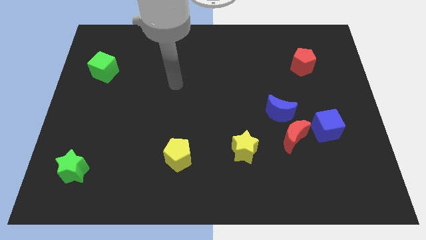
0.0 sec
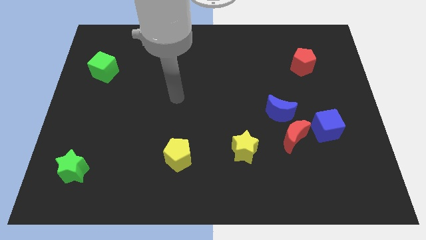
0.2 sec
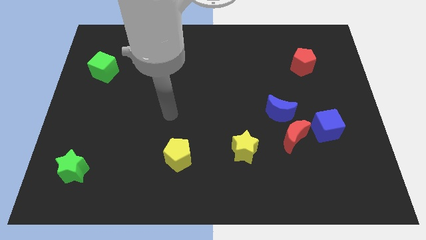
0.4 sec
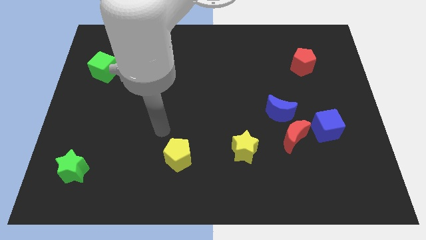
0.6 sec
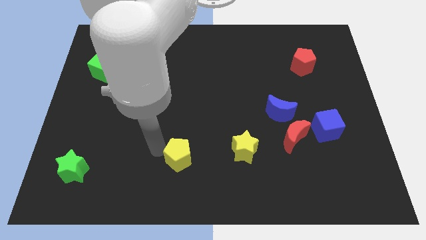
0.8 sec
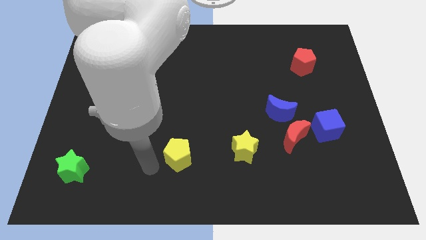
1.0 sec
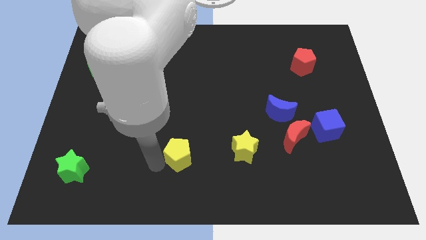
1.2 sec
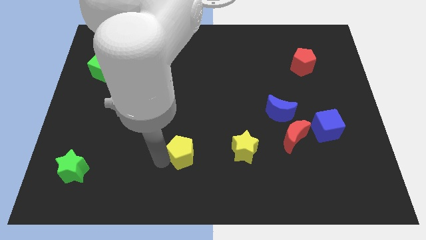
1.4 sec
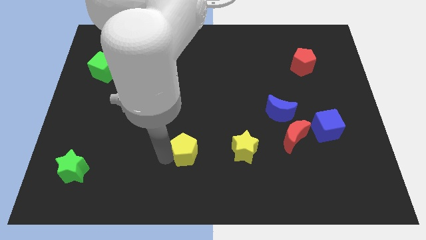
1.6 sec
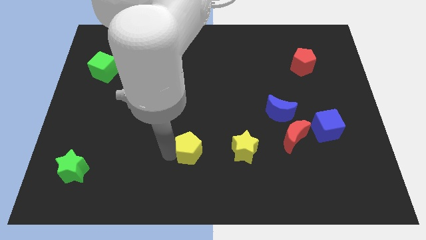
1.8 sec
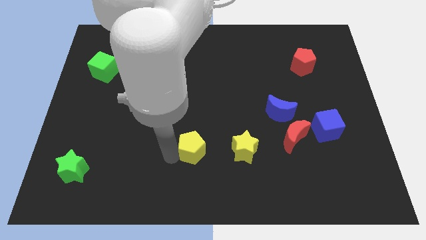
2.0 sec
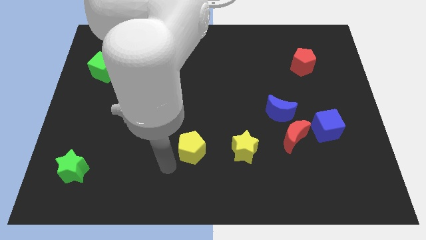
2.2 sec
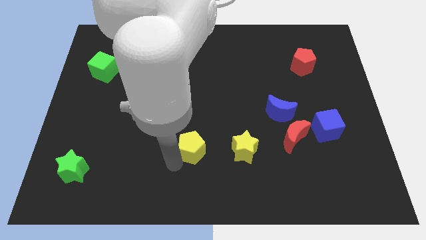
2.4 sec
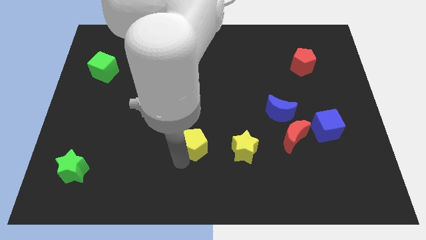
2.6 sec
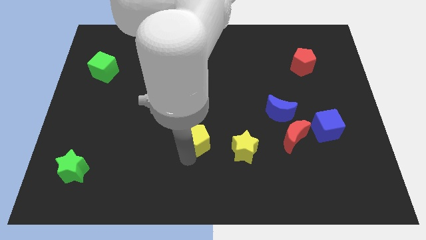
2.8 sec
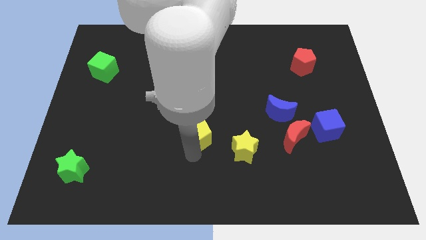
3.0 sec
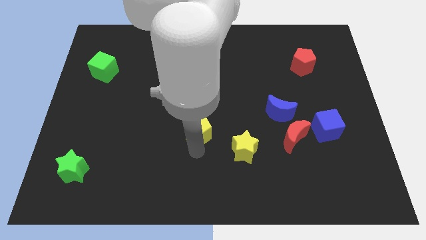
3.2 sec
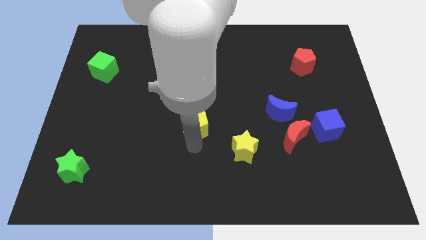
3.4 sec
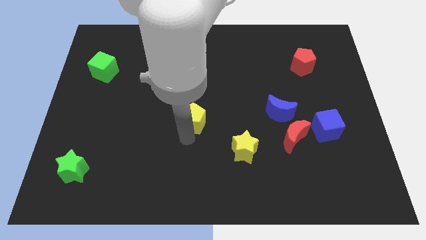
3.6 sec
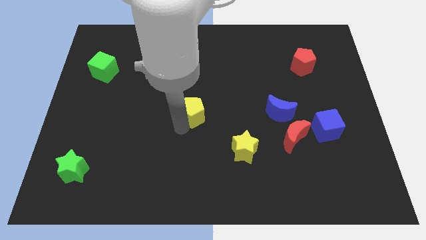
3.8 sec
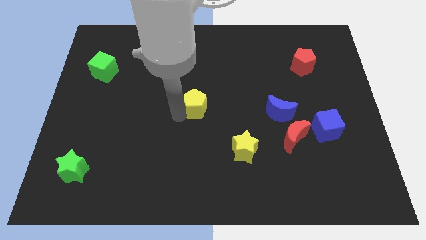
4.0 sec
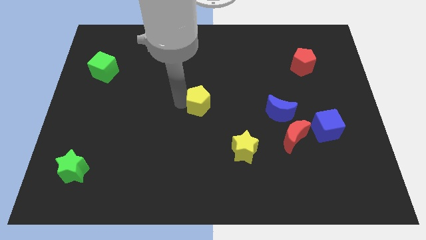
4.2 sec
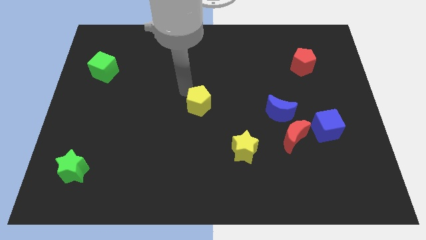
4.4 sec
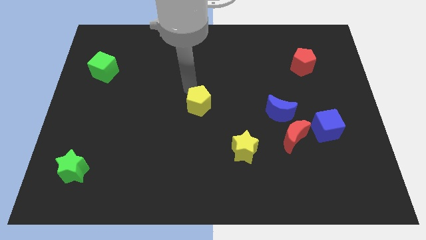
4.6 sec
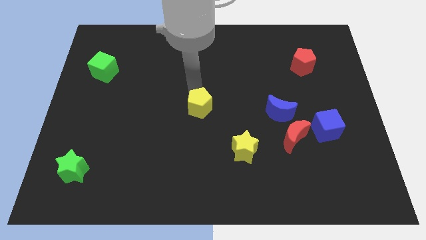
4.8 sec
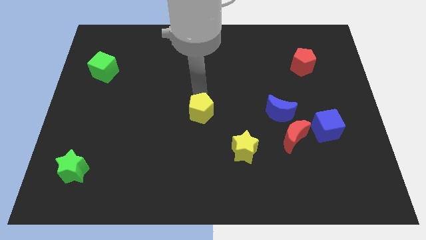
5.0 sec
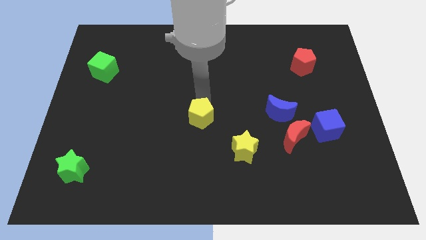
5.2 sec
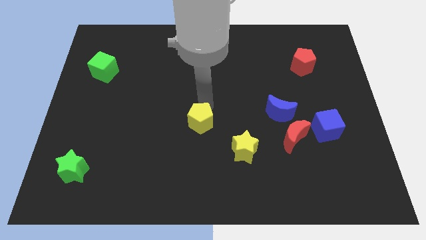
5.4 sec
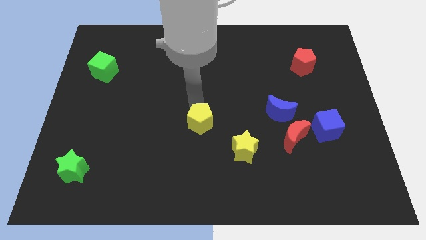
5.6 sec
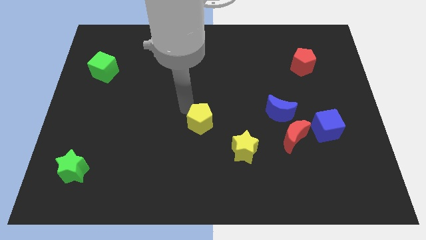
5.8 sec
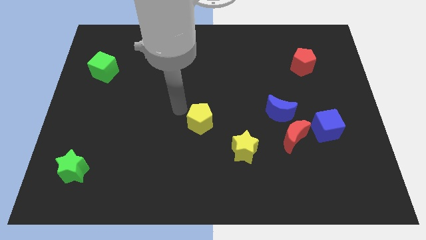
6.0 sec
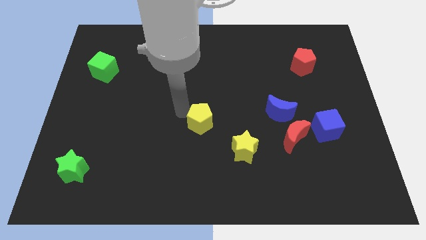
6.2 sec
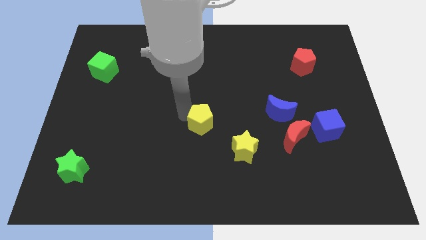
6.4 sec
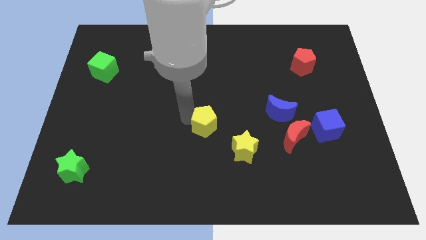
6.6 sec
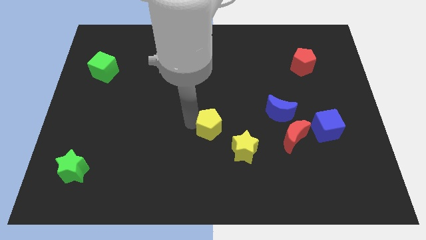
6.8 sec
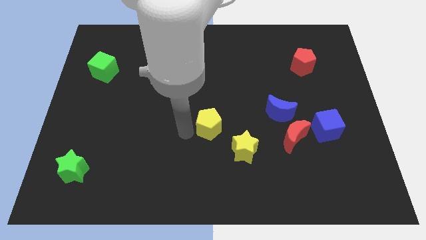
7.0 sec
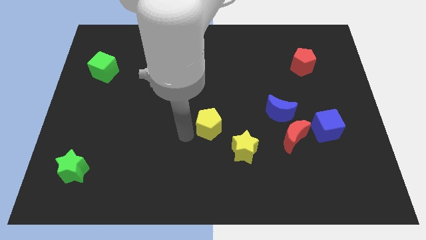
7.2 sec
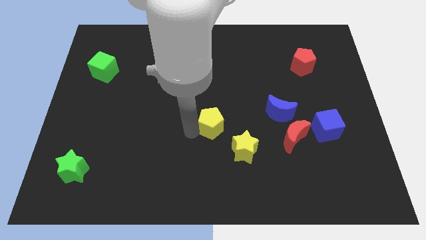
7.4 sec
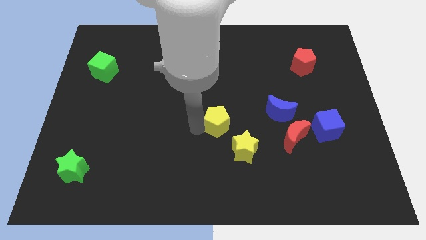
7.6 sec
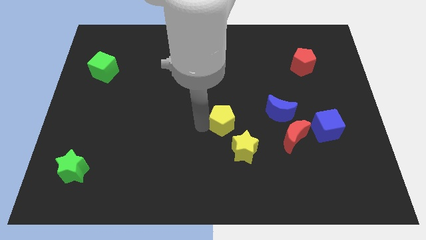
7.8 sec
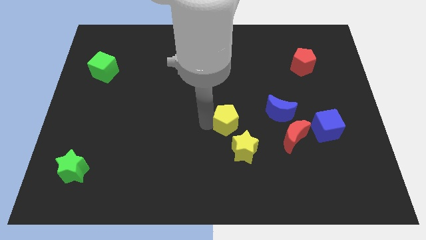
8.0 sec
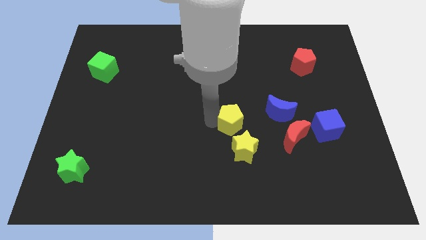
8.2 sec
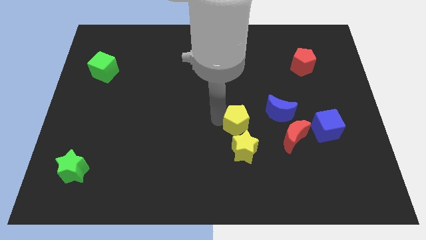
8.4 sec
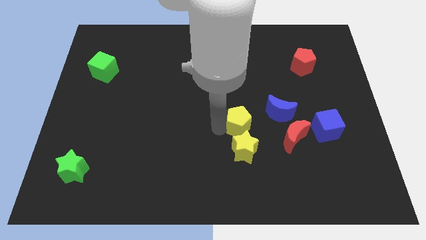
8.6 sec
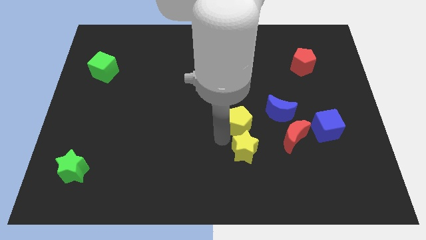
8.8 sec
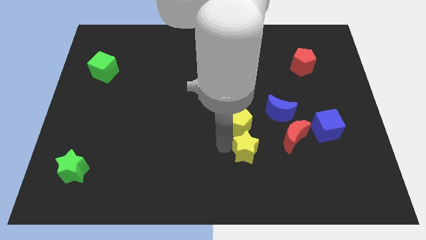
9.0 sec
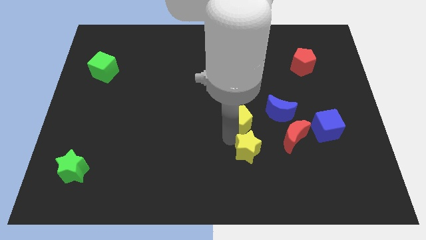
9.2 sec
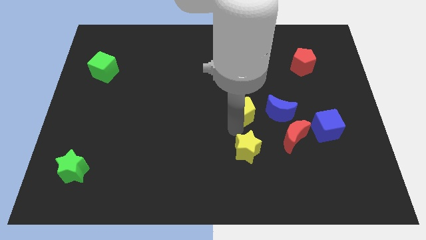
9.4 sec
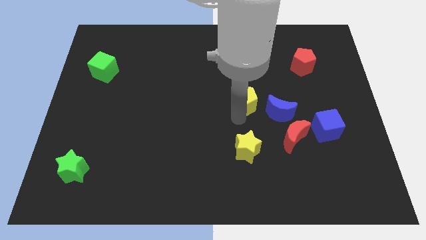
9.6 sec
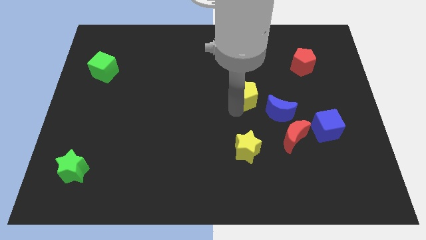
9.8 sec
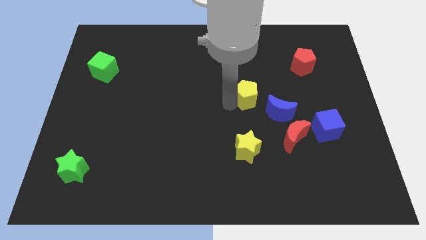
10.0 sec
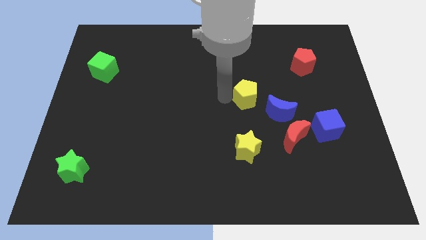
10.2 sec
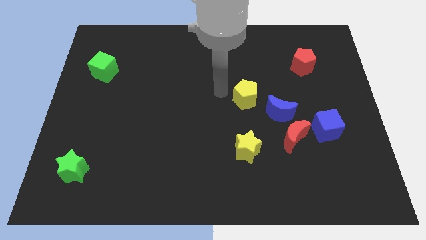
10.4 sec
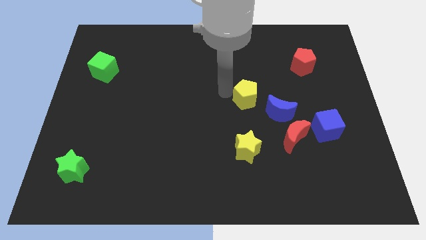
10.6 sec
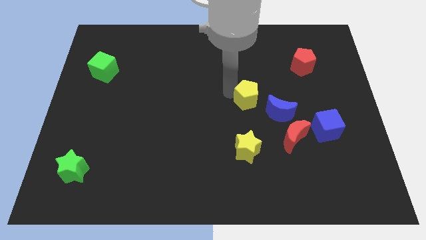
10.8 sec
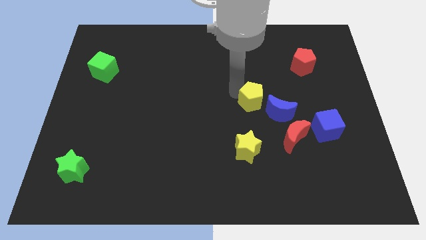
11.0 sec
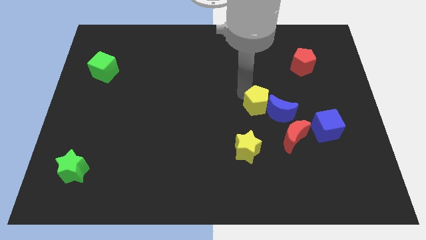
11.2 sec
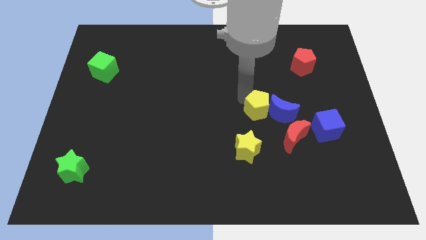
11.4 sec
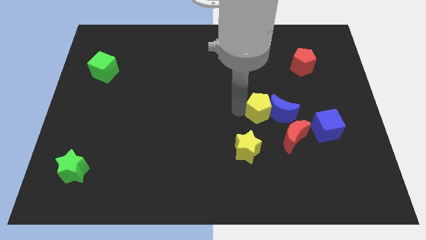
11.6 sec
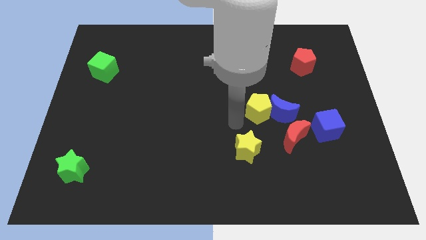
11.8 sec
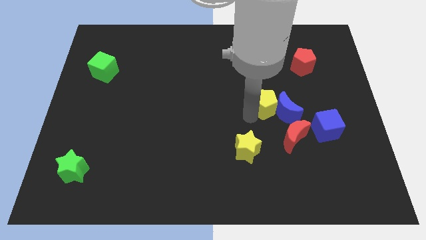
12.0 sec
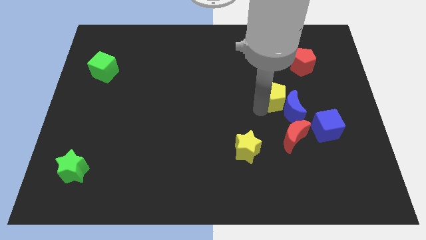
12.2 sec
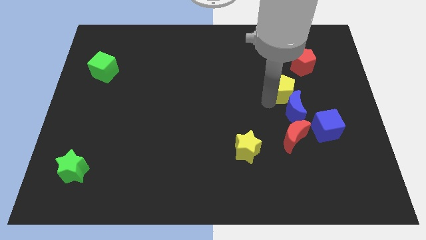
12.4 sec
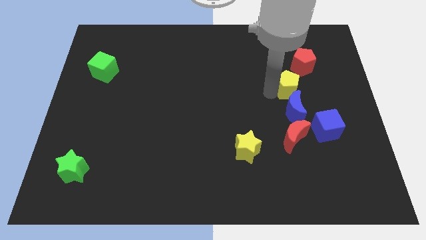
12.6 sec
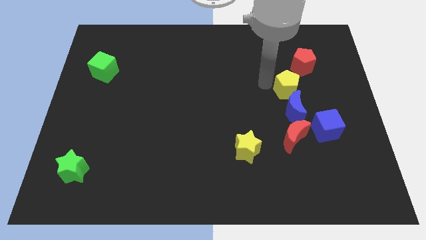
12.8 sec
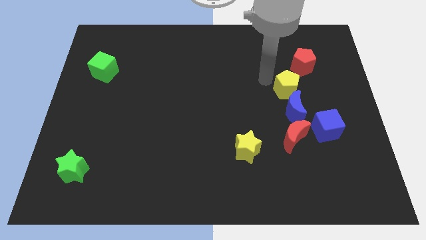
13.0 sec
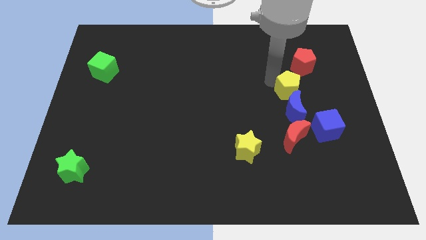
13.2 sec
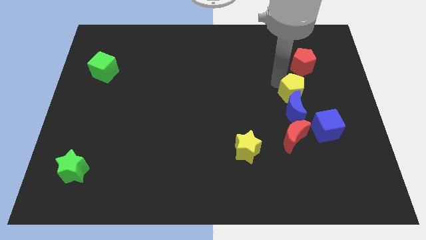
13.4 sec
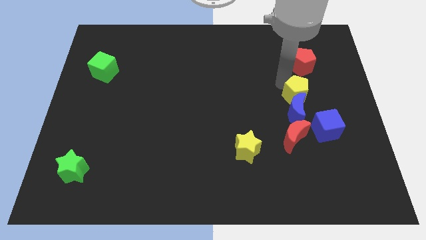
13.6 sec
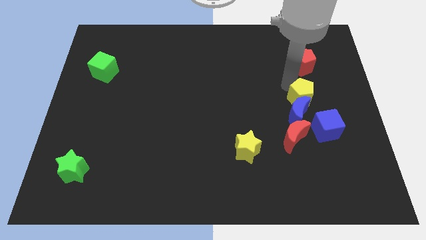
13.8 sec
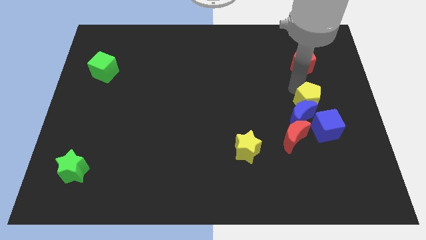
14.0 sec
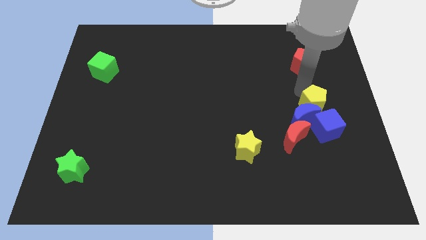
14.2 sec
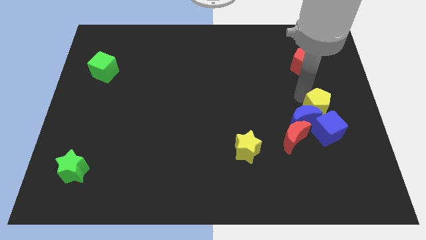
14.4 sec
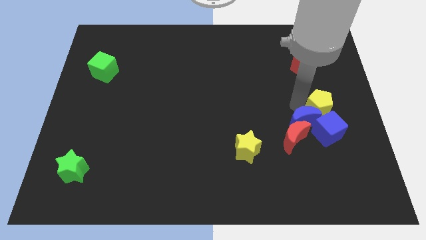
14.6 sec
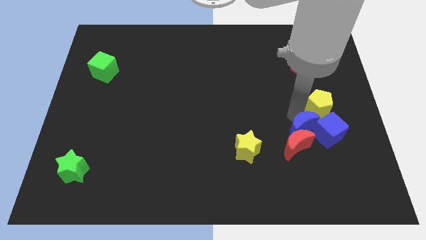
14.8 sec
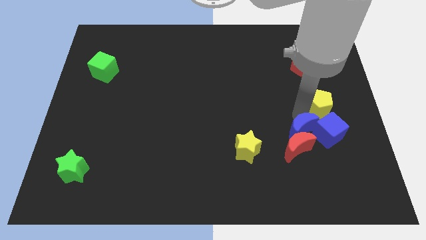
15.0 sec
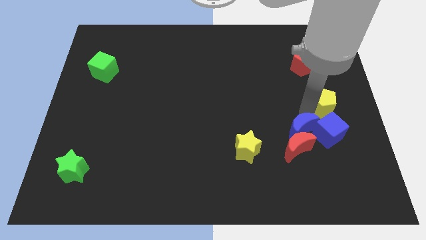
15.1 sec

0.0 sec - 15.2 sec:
put the yellow pentagon to the right side
